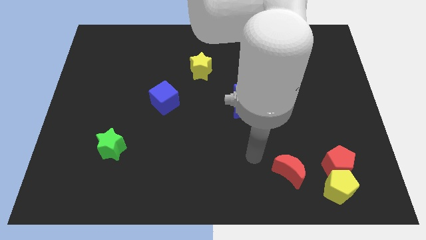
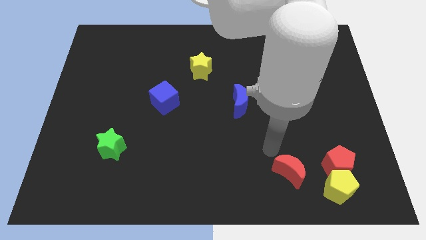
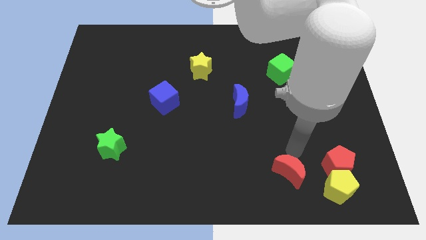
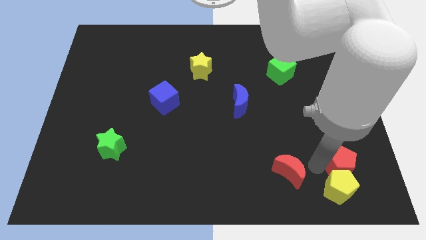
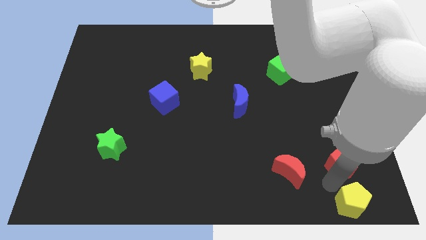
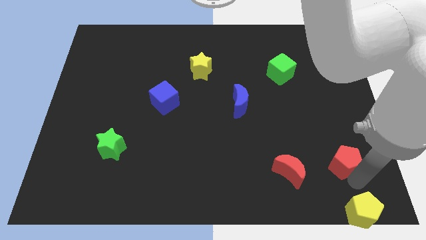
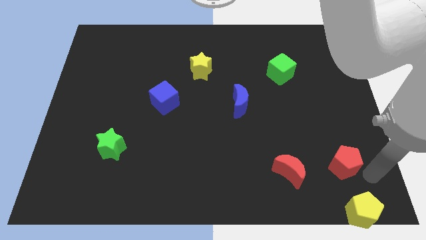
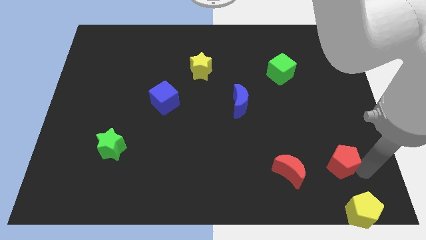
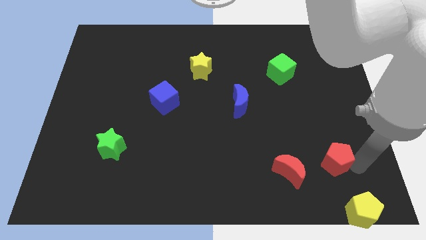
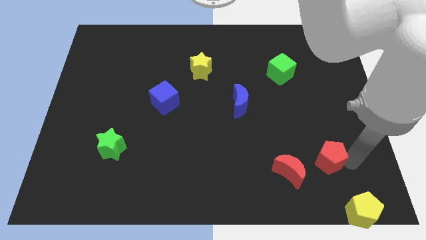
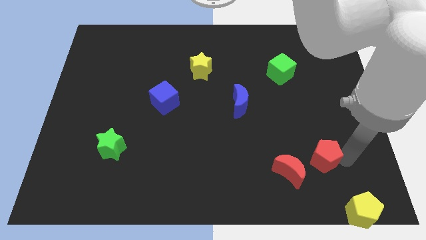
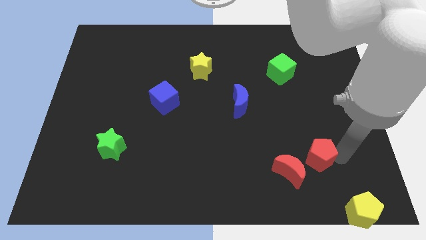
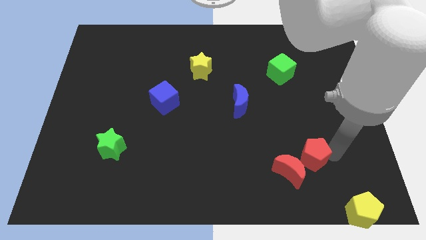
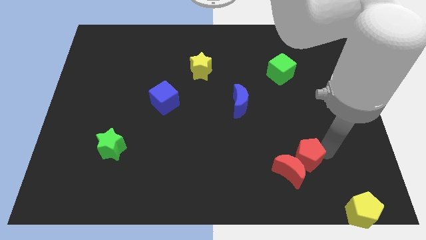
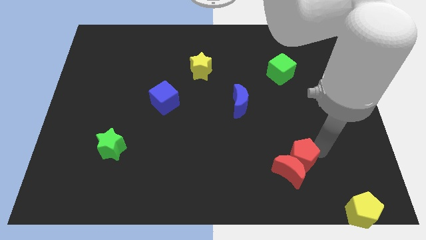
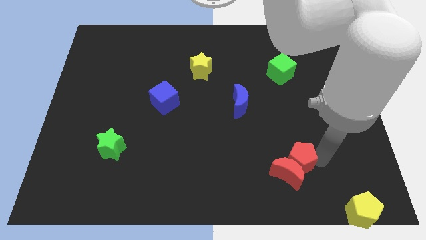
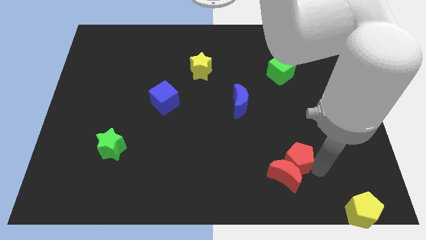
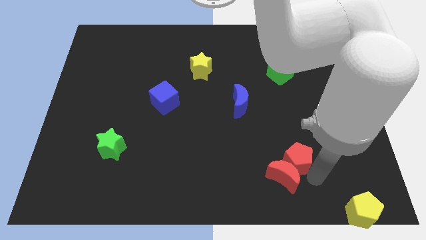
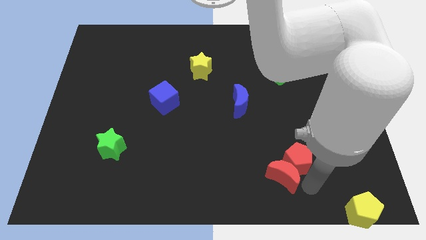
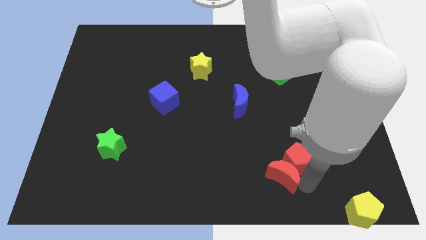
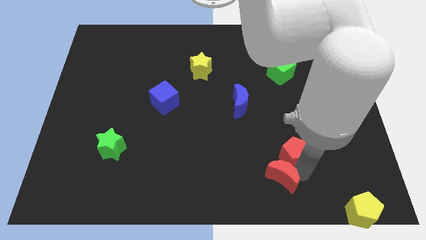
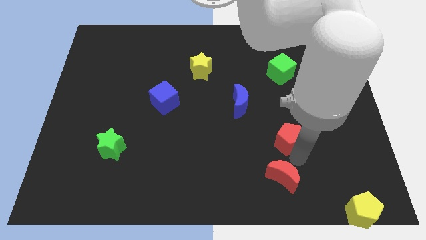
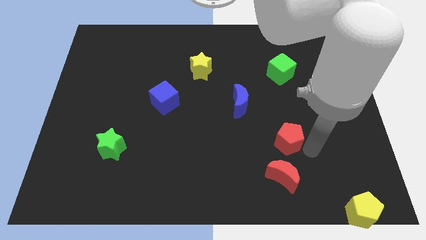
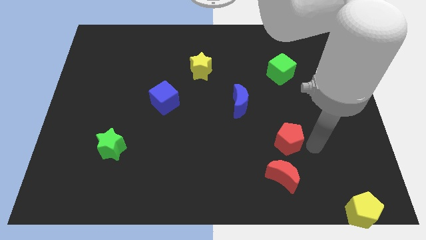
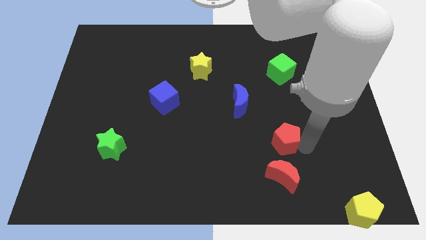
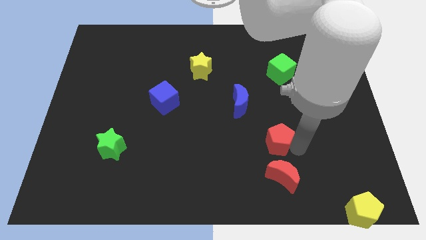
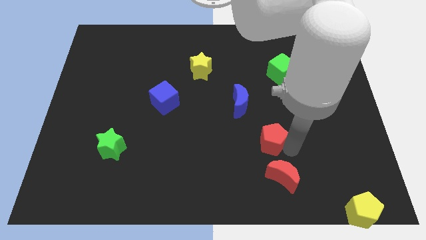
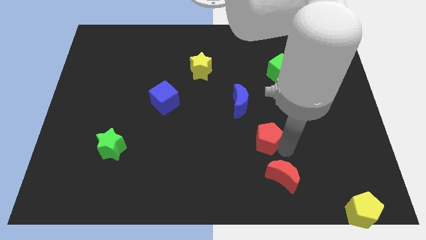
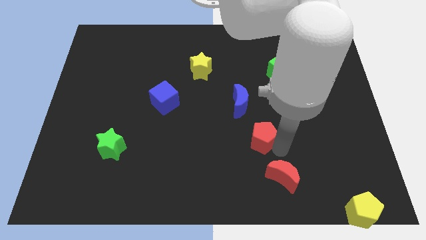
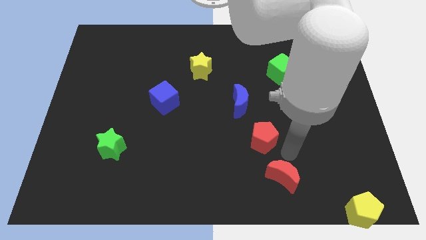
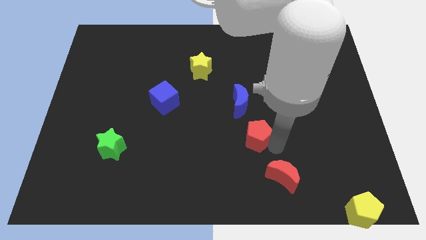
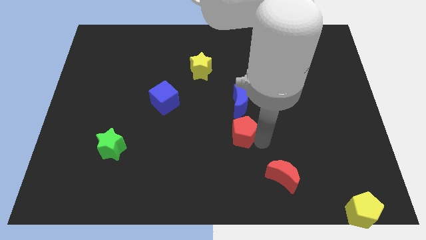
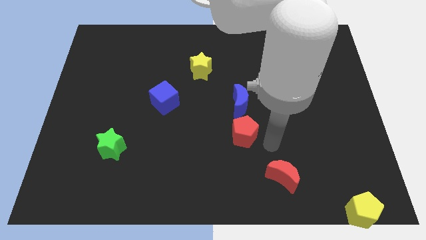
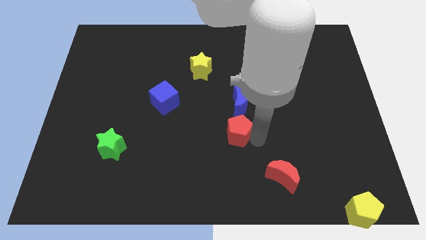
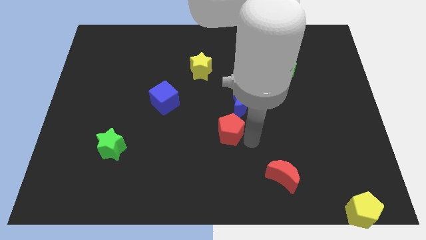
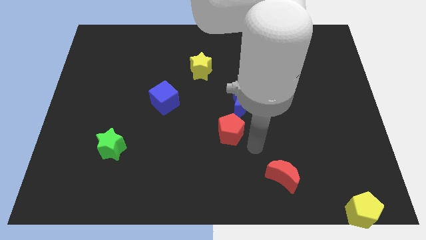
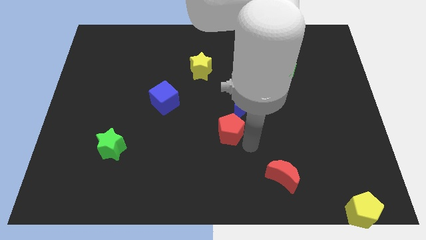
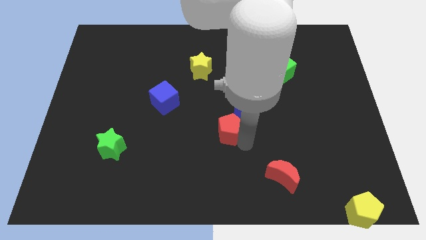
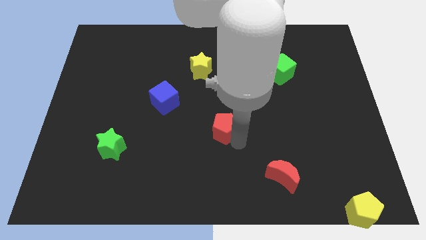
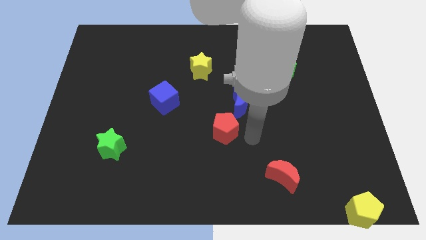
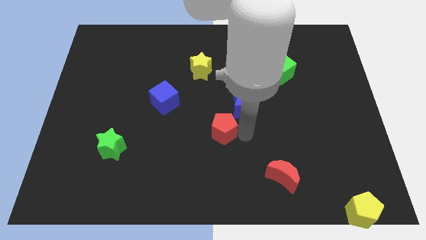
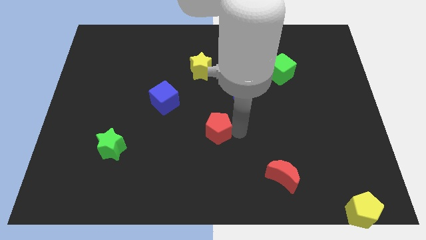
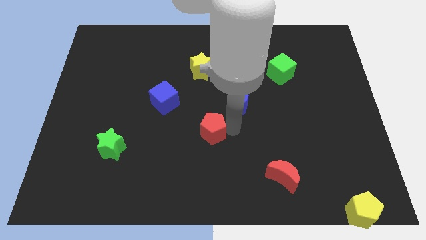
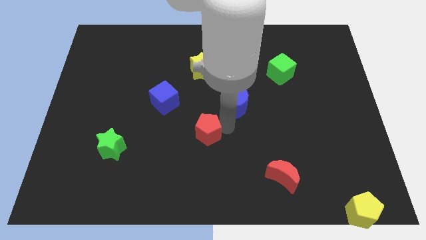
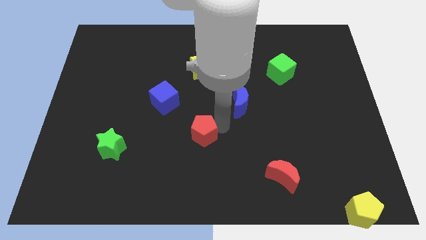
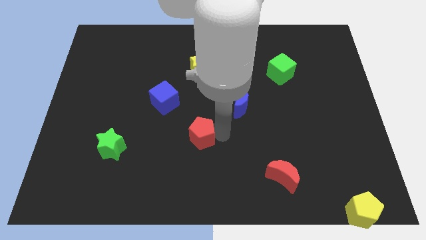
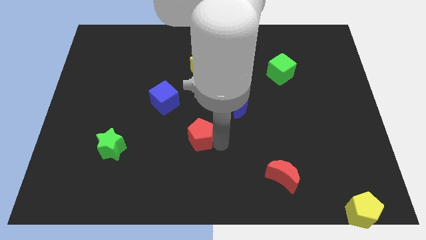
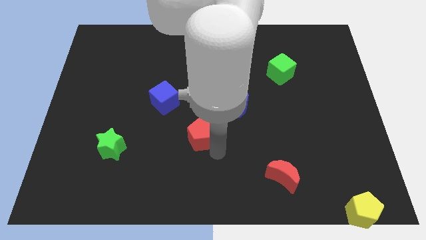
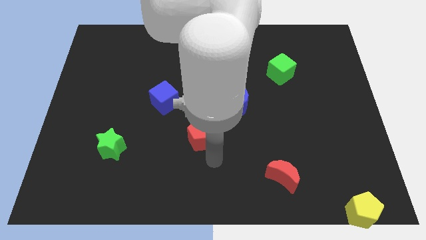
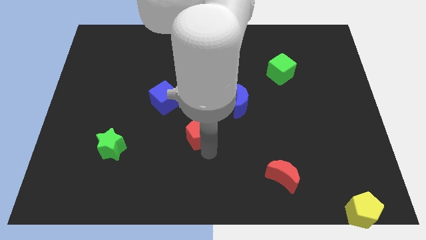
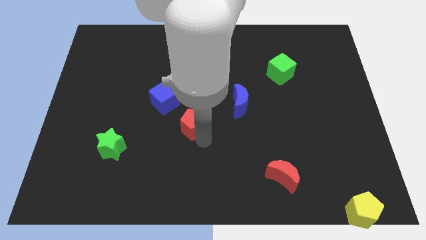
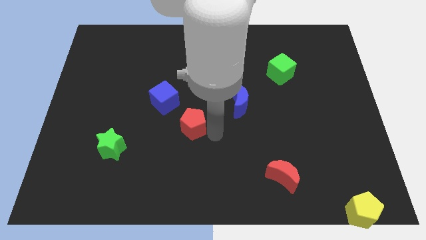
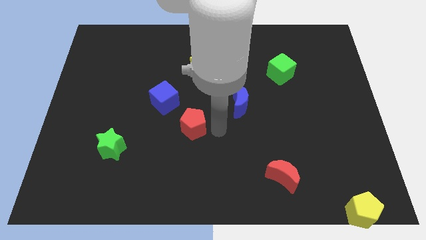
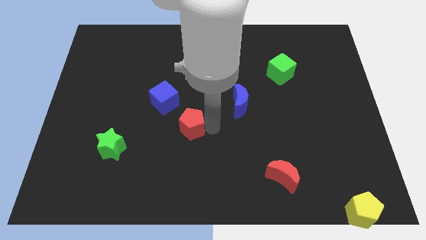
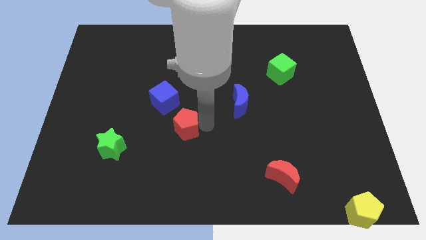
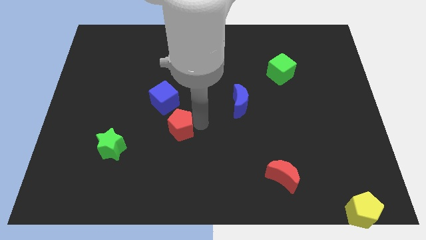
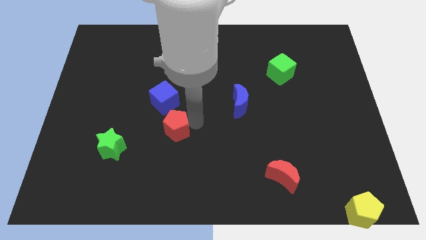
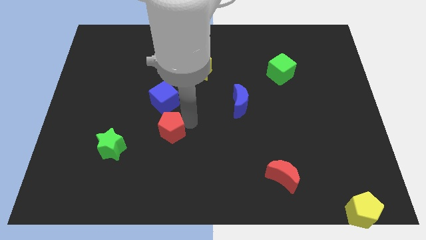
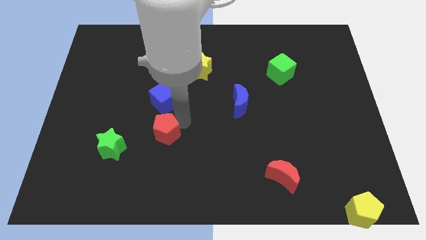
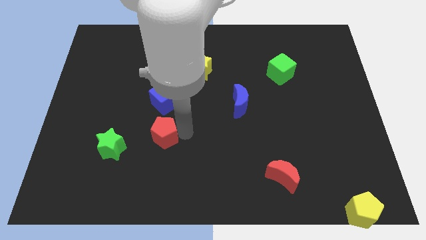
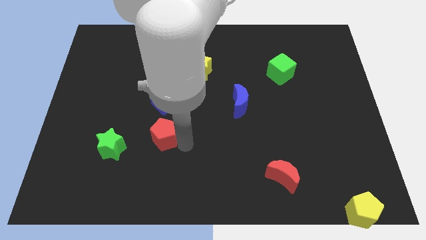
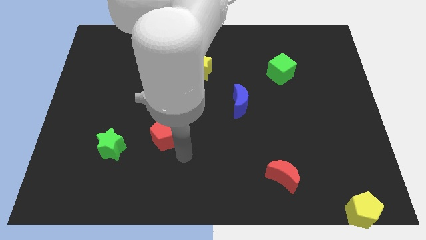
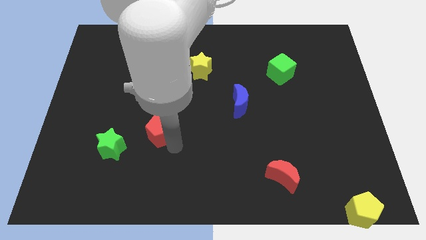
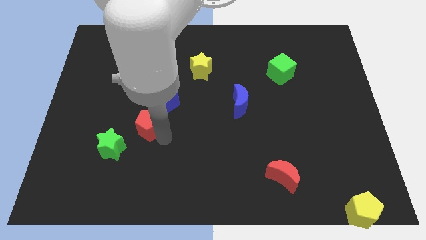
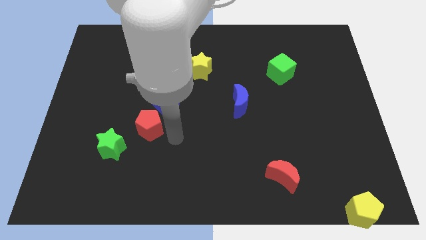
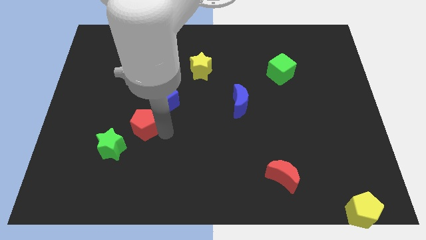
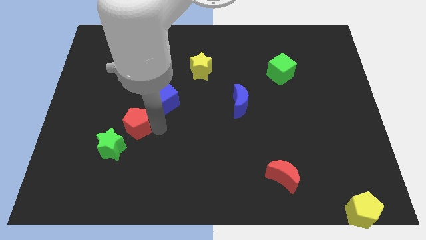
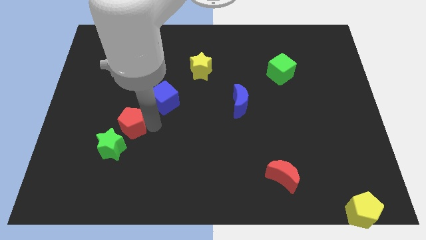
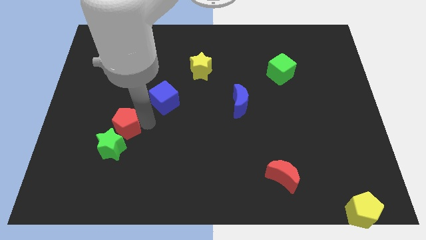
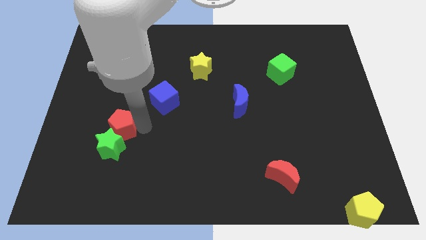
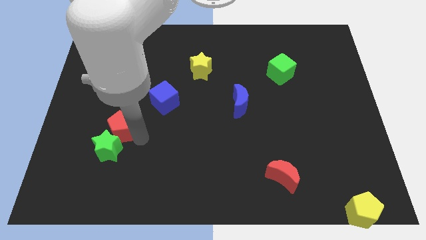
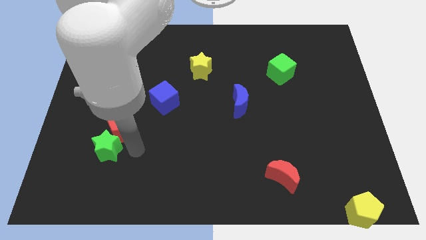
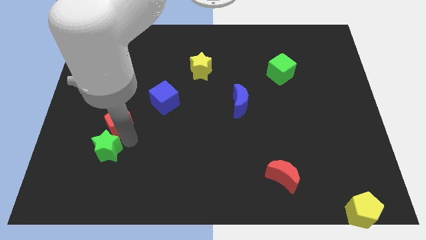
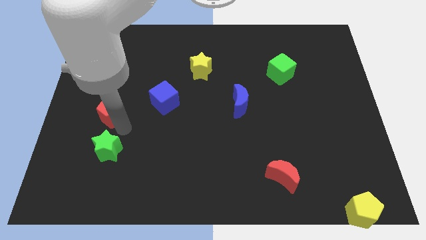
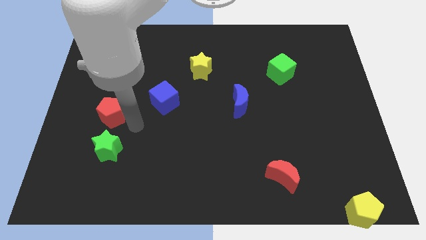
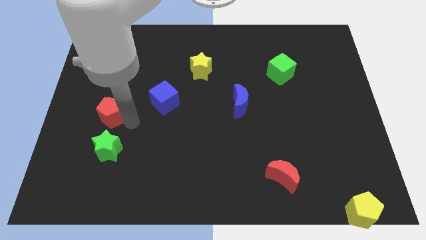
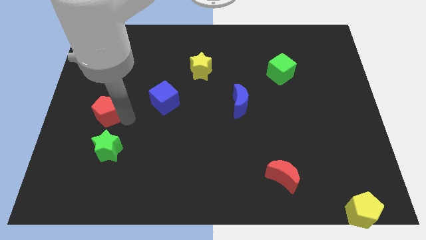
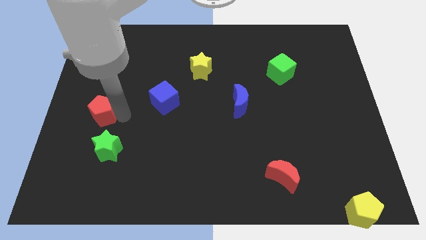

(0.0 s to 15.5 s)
put the red pentagon to the left side
